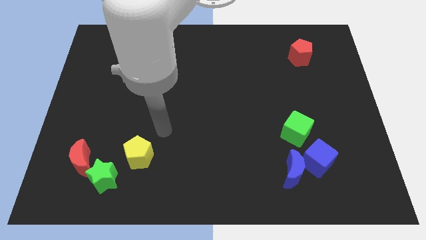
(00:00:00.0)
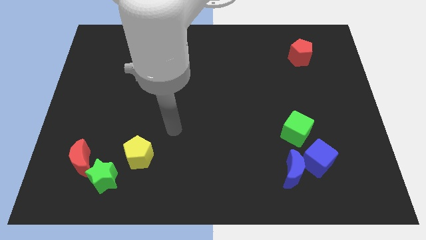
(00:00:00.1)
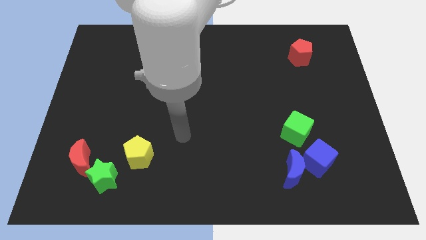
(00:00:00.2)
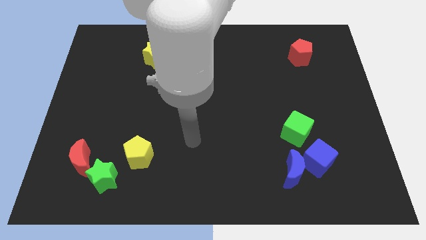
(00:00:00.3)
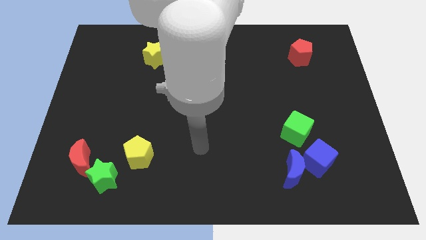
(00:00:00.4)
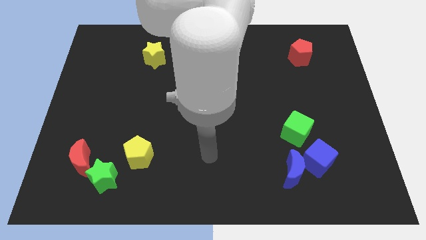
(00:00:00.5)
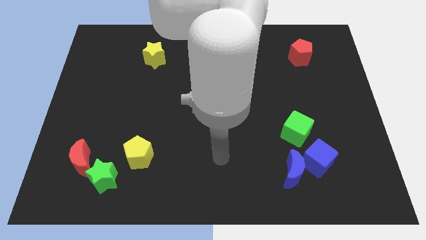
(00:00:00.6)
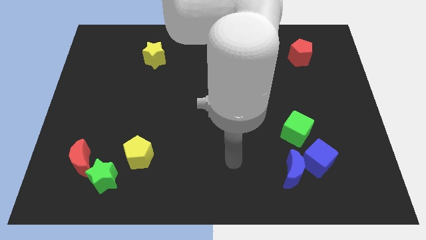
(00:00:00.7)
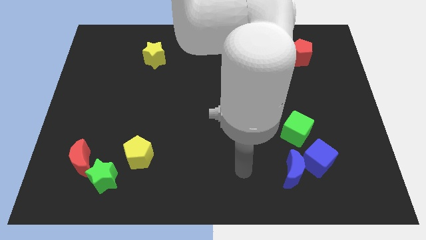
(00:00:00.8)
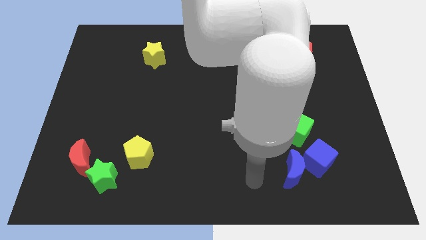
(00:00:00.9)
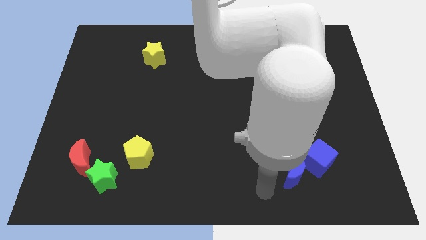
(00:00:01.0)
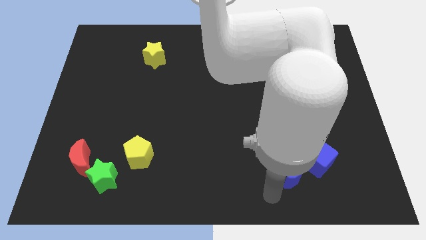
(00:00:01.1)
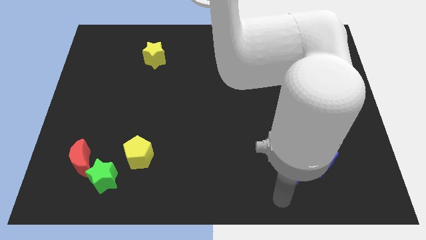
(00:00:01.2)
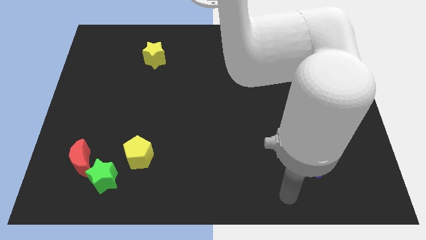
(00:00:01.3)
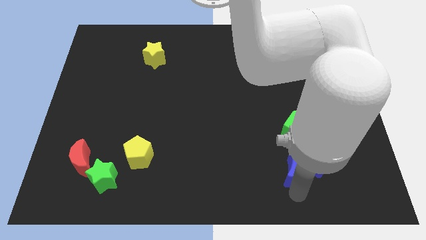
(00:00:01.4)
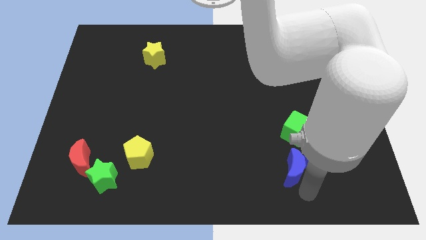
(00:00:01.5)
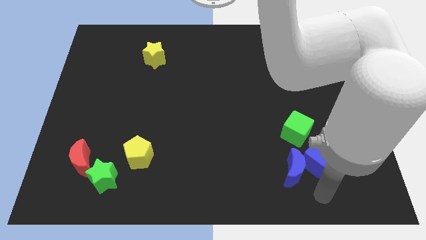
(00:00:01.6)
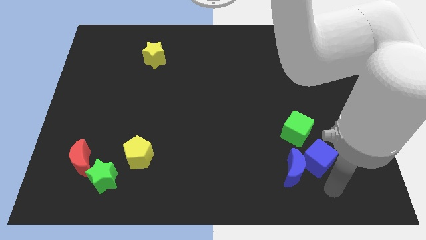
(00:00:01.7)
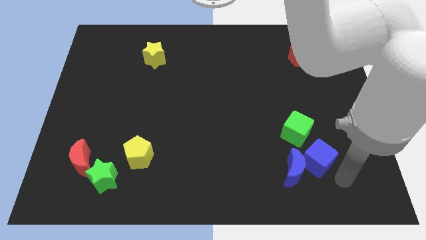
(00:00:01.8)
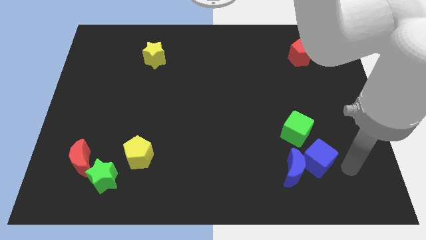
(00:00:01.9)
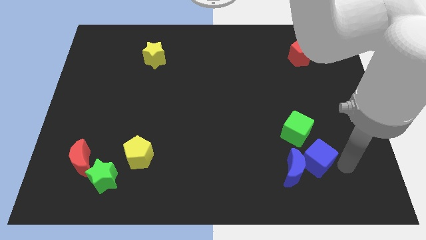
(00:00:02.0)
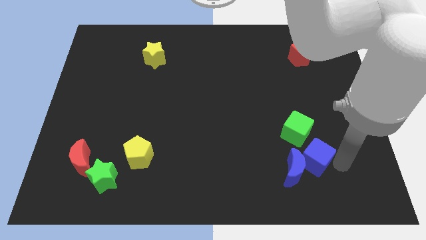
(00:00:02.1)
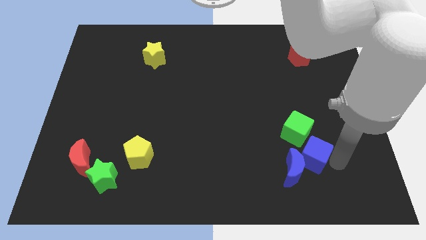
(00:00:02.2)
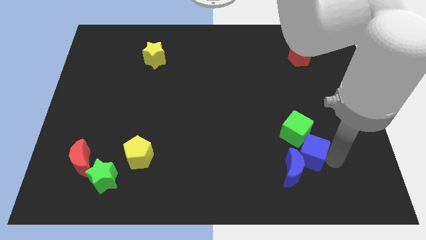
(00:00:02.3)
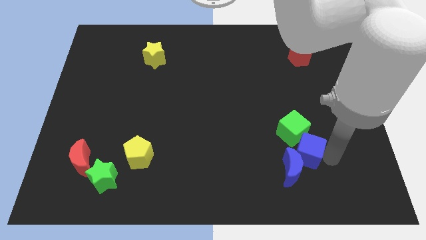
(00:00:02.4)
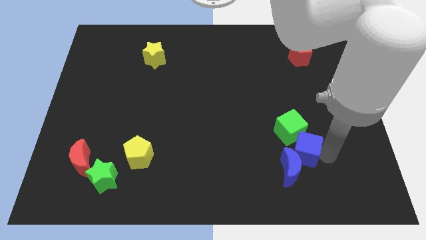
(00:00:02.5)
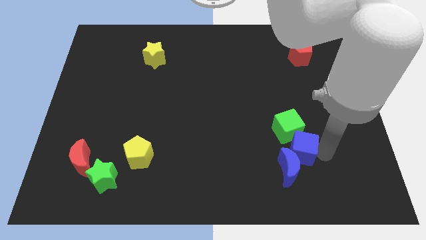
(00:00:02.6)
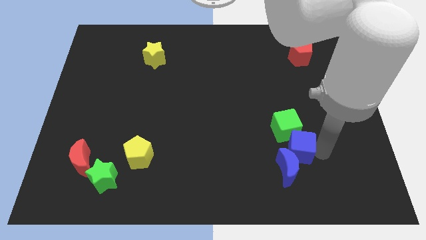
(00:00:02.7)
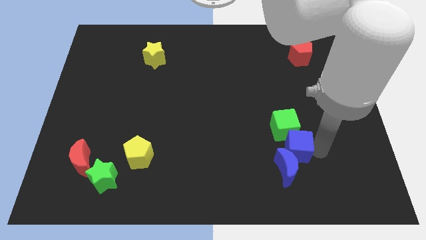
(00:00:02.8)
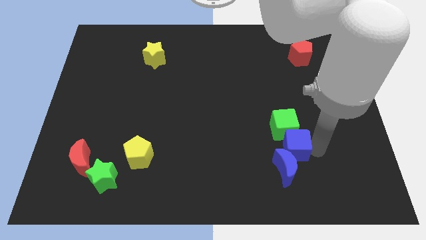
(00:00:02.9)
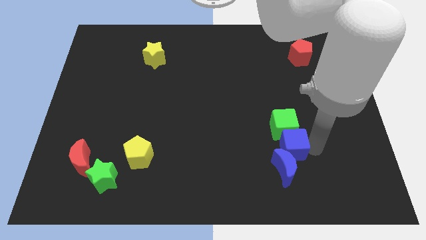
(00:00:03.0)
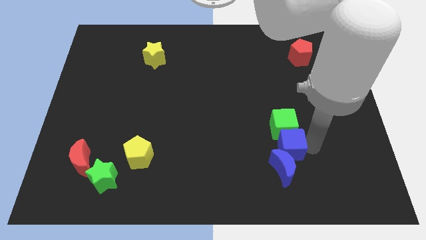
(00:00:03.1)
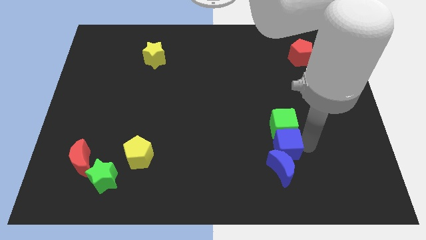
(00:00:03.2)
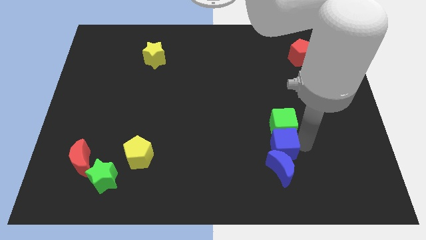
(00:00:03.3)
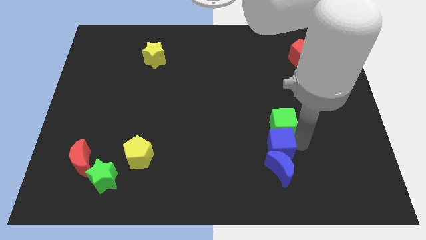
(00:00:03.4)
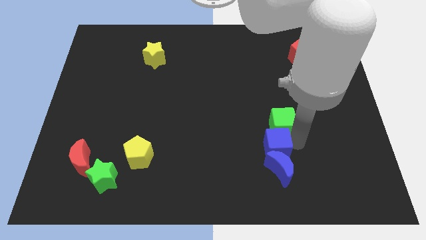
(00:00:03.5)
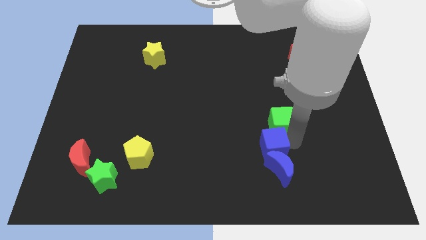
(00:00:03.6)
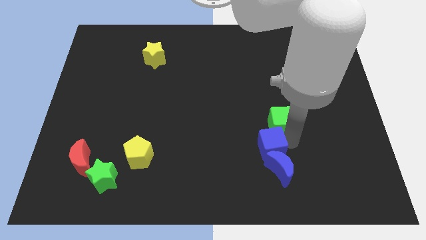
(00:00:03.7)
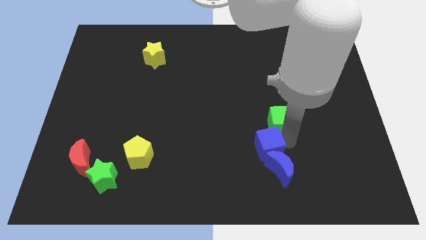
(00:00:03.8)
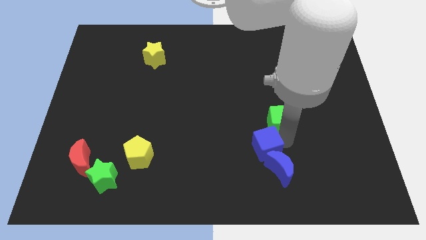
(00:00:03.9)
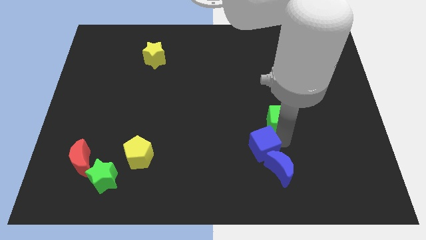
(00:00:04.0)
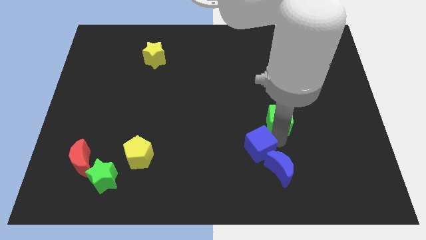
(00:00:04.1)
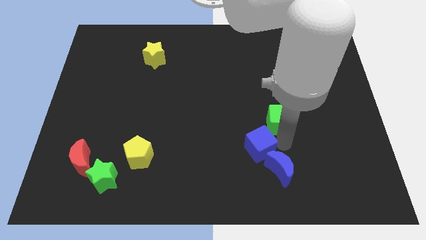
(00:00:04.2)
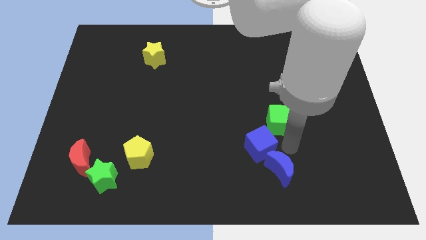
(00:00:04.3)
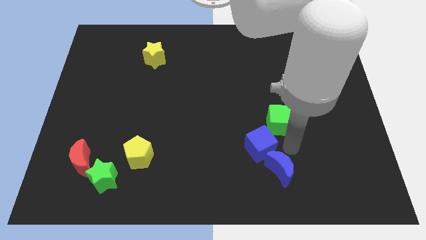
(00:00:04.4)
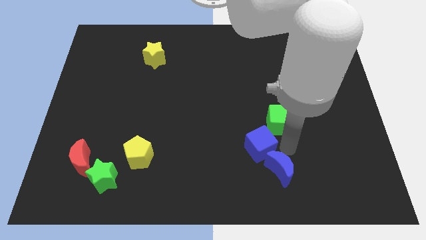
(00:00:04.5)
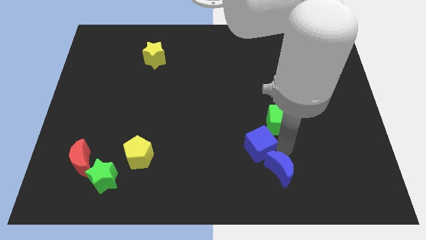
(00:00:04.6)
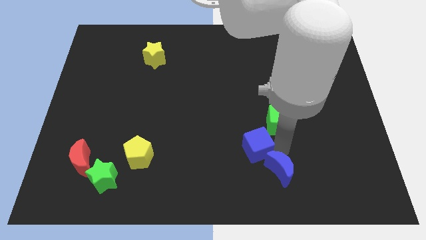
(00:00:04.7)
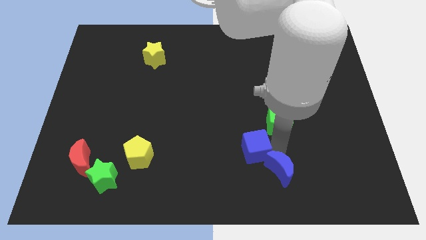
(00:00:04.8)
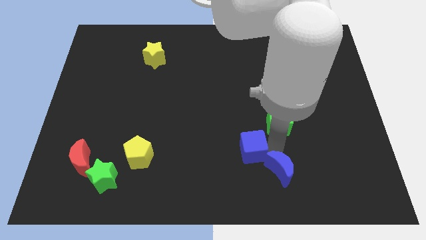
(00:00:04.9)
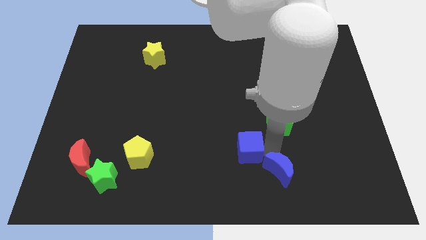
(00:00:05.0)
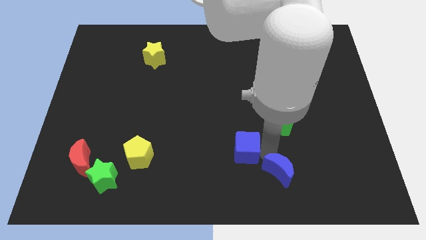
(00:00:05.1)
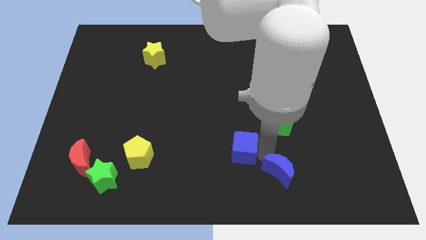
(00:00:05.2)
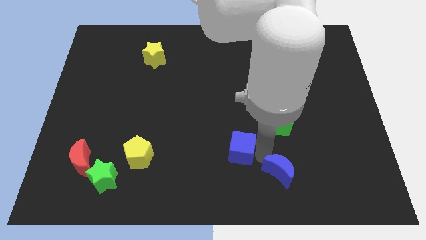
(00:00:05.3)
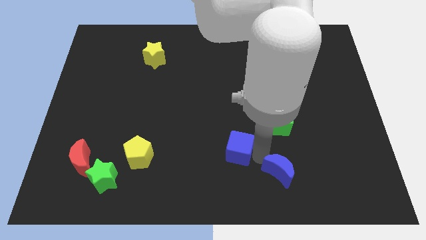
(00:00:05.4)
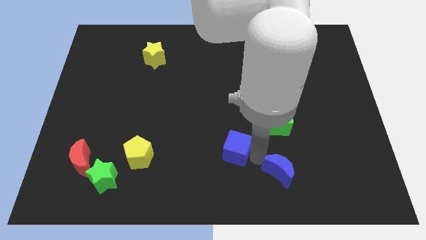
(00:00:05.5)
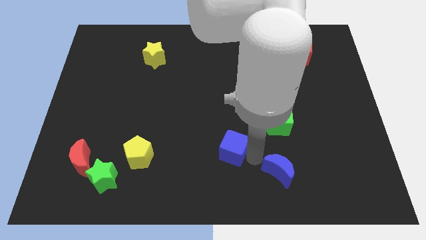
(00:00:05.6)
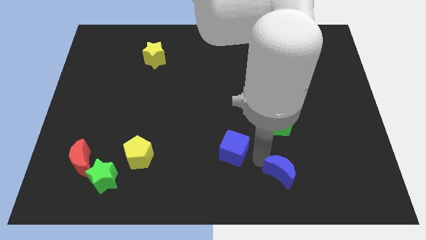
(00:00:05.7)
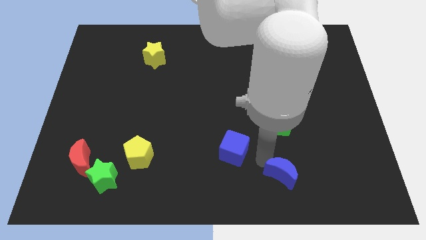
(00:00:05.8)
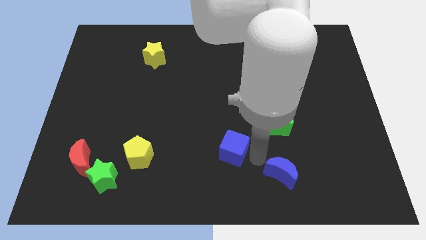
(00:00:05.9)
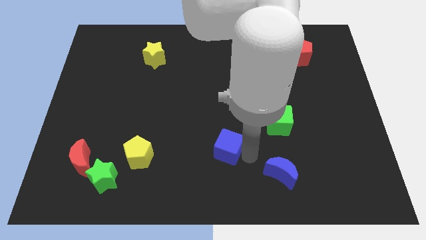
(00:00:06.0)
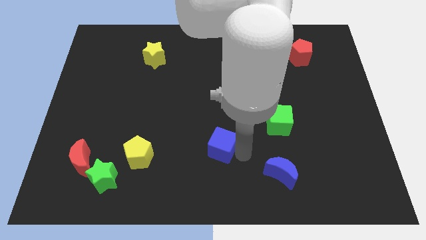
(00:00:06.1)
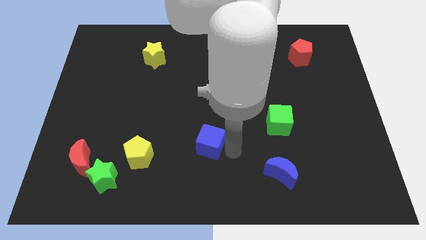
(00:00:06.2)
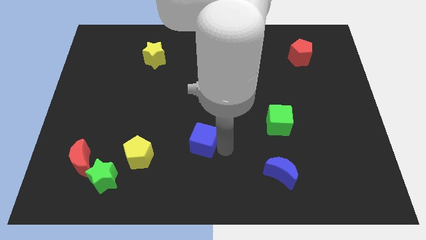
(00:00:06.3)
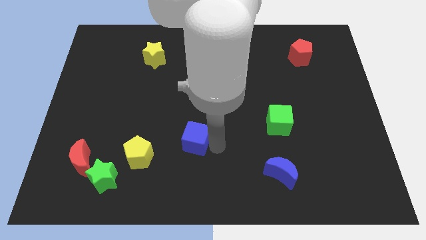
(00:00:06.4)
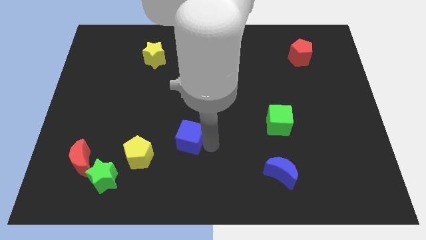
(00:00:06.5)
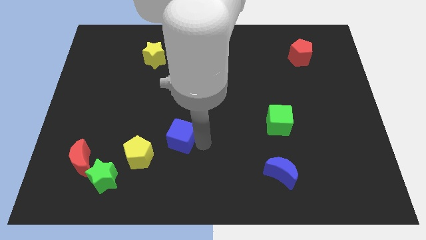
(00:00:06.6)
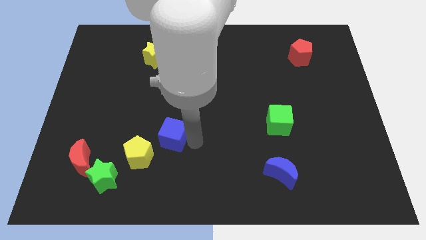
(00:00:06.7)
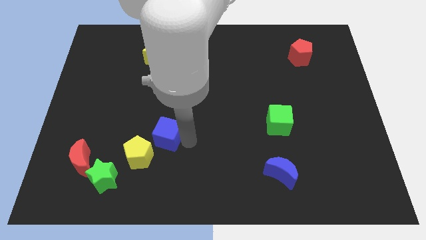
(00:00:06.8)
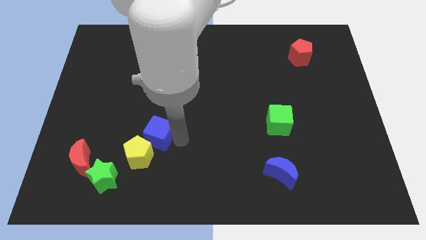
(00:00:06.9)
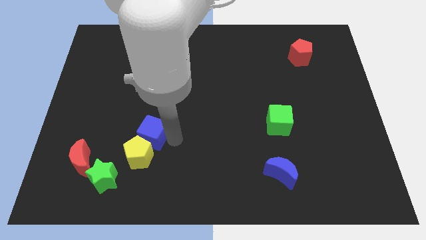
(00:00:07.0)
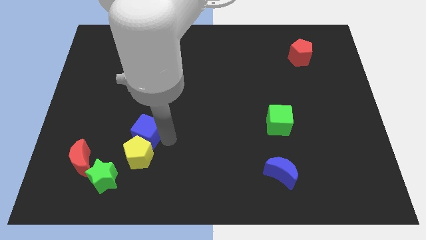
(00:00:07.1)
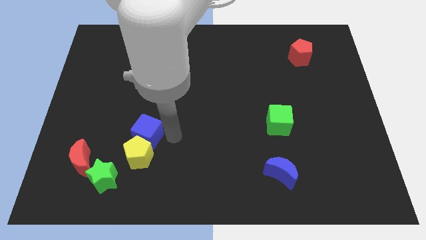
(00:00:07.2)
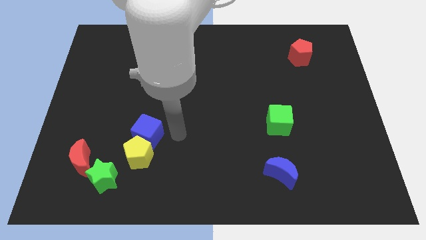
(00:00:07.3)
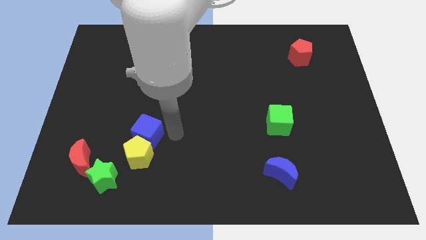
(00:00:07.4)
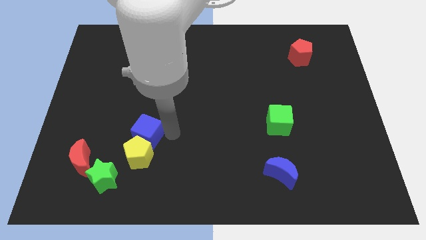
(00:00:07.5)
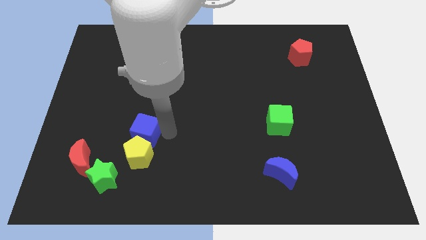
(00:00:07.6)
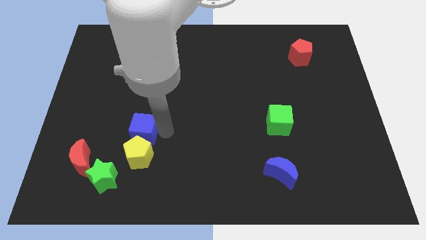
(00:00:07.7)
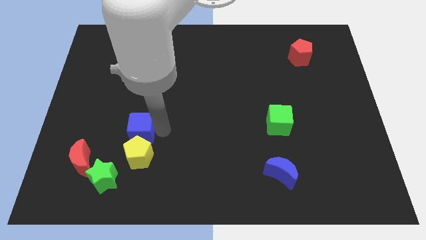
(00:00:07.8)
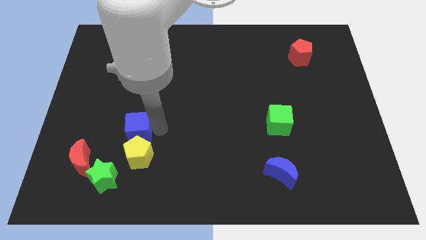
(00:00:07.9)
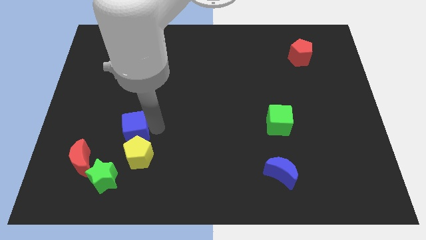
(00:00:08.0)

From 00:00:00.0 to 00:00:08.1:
put the blue cube to the top side of the green star
